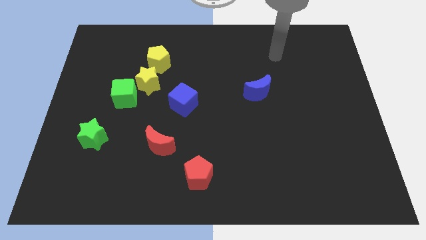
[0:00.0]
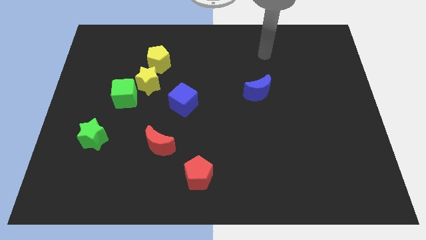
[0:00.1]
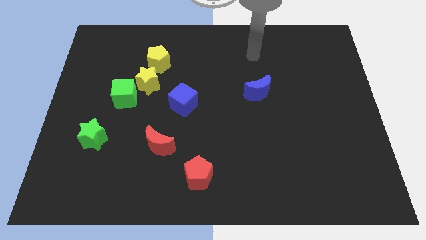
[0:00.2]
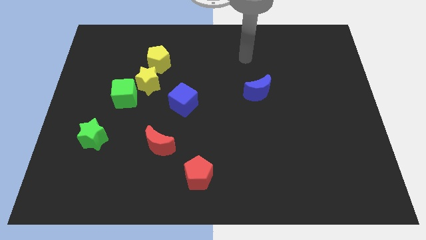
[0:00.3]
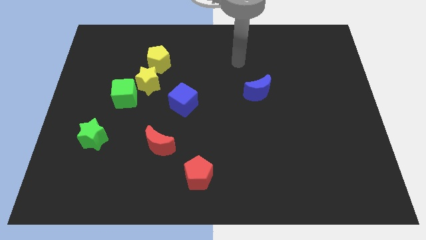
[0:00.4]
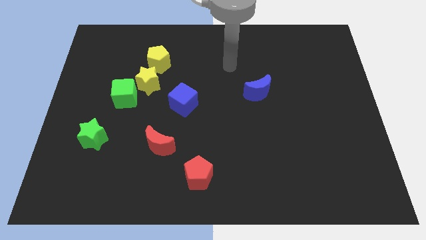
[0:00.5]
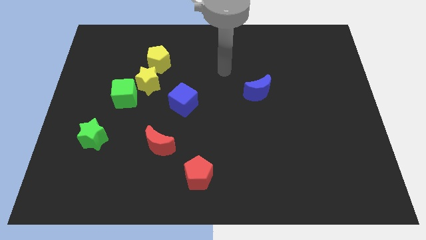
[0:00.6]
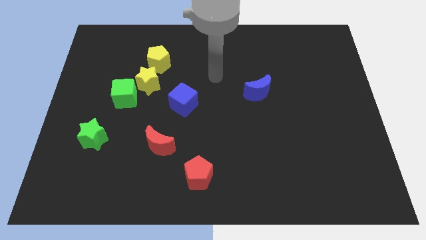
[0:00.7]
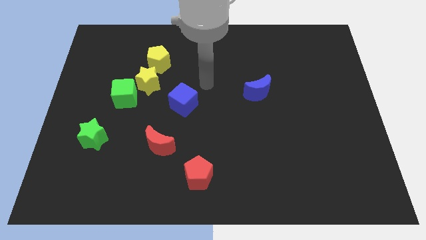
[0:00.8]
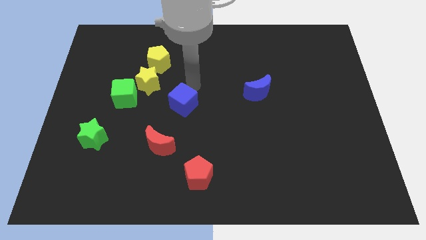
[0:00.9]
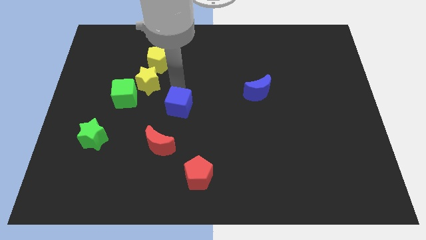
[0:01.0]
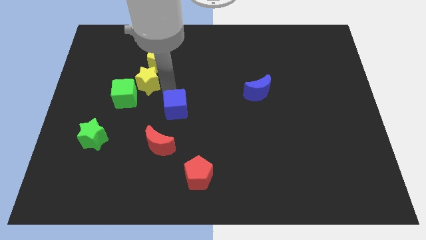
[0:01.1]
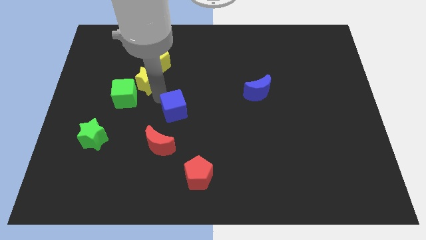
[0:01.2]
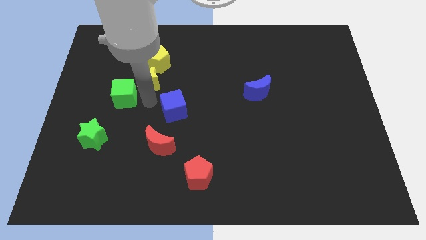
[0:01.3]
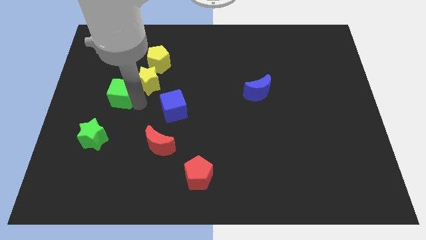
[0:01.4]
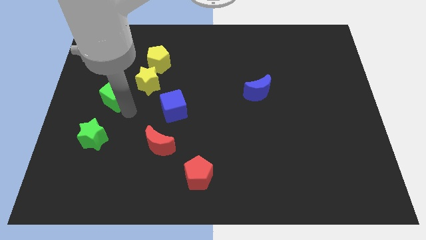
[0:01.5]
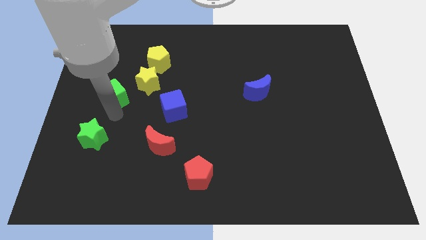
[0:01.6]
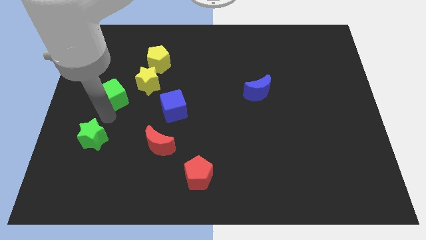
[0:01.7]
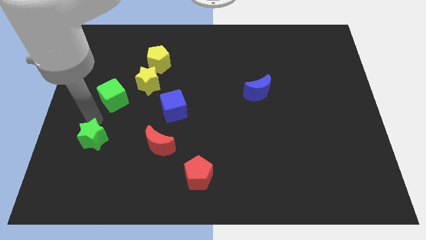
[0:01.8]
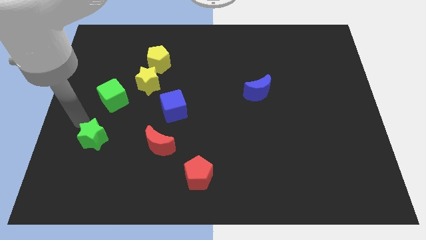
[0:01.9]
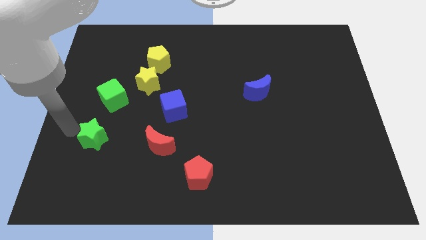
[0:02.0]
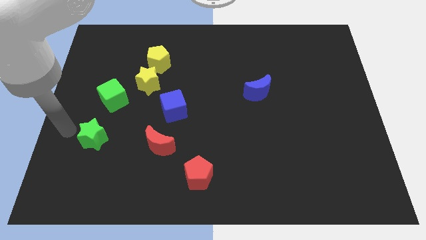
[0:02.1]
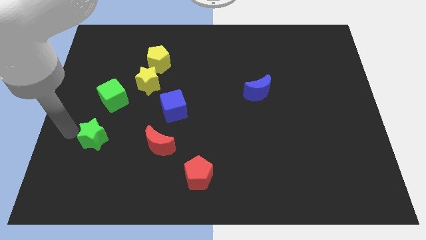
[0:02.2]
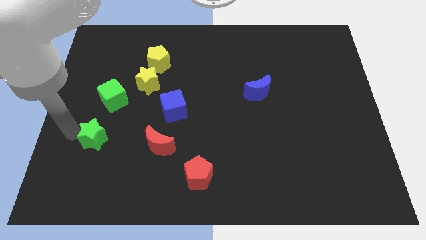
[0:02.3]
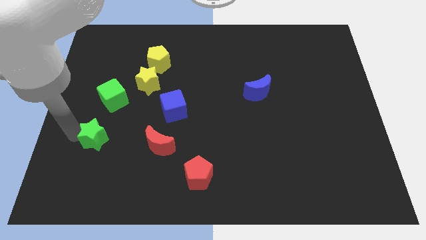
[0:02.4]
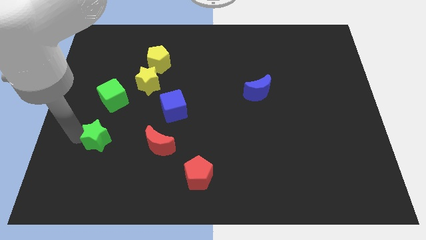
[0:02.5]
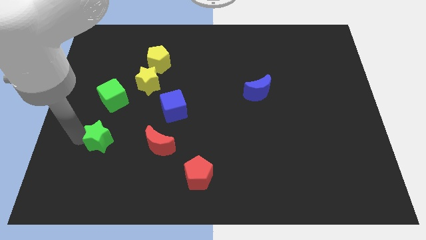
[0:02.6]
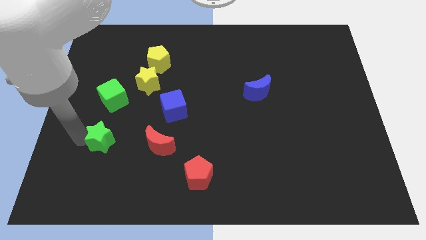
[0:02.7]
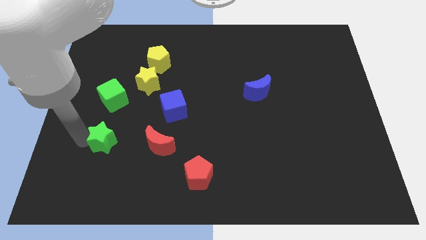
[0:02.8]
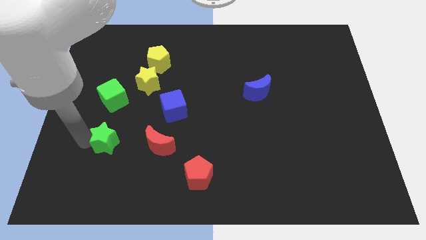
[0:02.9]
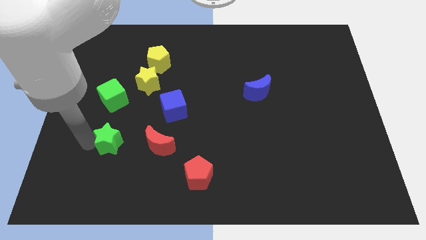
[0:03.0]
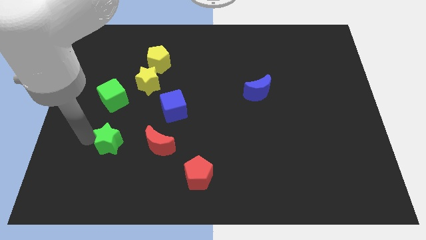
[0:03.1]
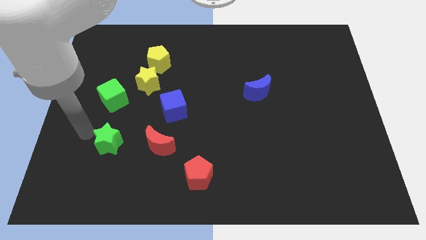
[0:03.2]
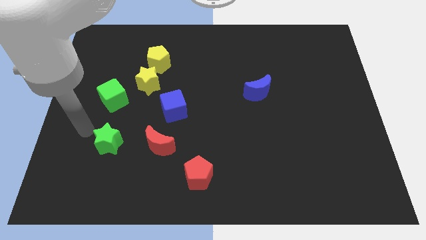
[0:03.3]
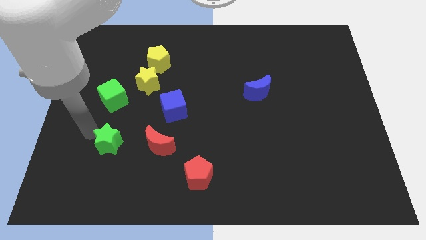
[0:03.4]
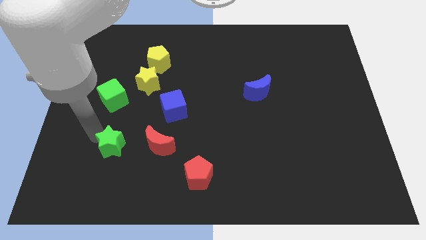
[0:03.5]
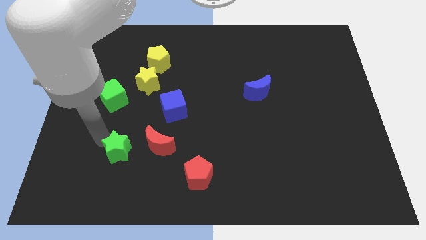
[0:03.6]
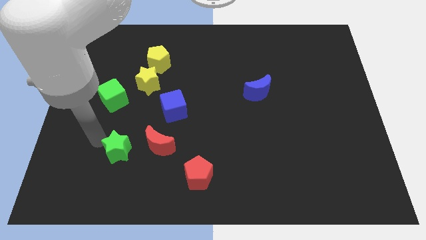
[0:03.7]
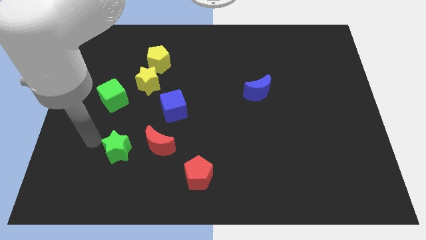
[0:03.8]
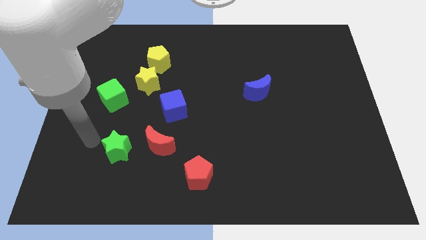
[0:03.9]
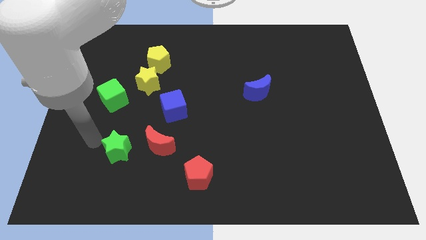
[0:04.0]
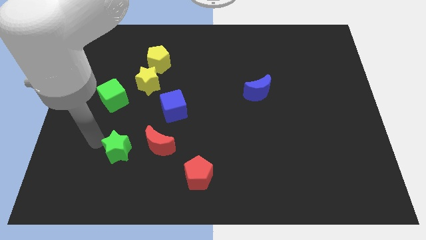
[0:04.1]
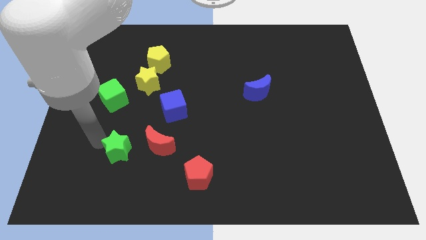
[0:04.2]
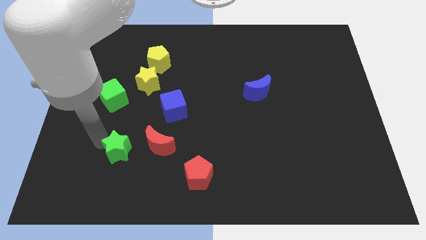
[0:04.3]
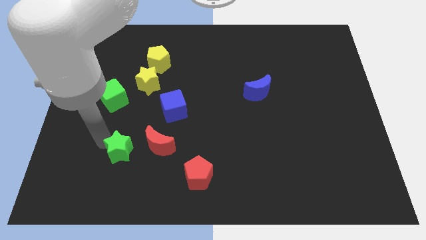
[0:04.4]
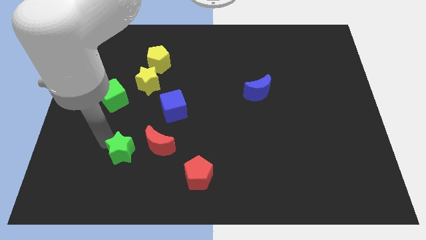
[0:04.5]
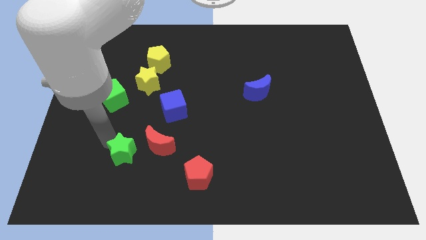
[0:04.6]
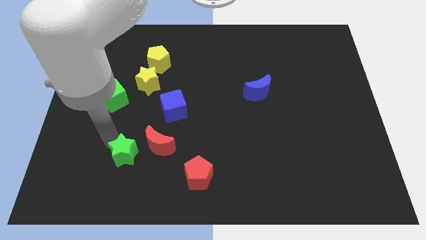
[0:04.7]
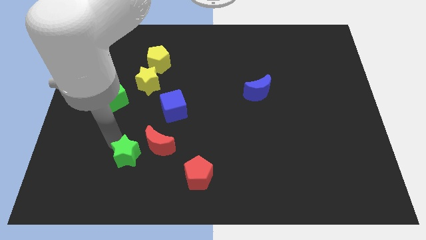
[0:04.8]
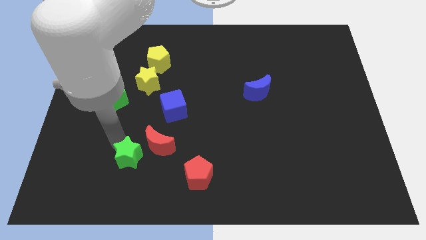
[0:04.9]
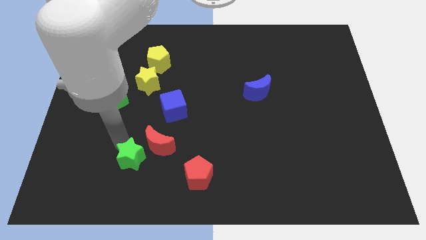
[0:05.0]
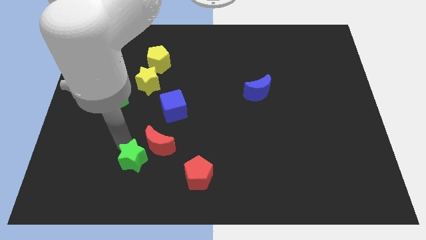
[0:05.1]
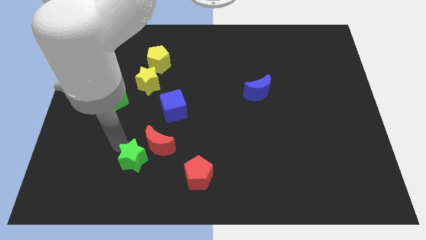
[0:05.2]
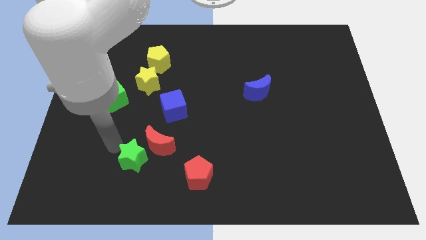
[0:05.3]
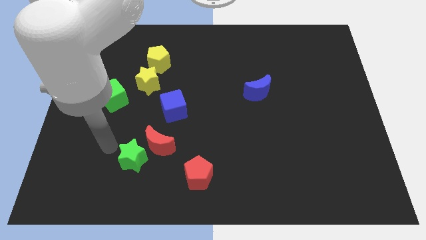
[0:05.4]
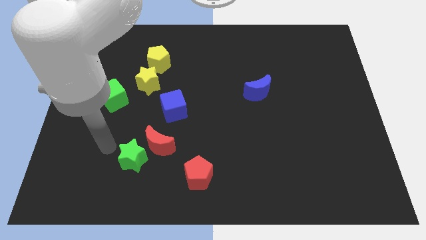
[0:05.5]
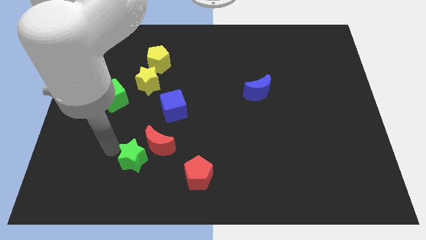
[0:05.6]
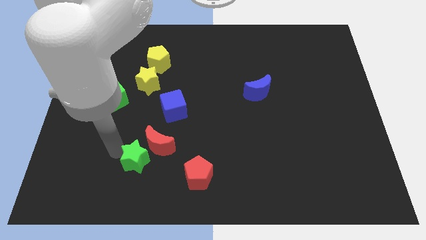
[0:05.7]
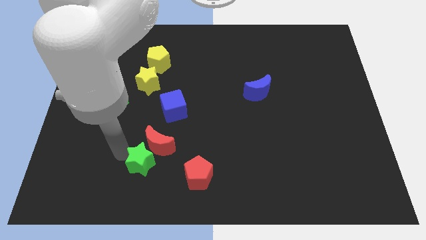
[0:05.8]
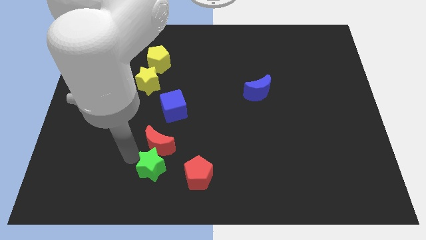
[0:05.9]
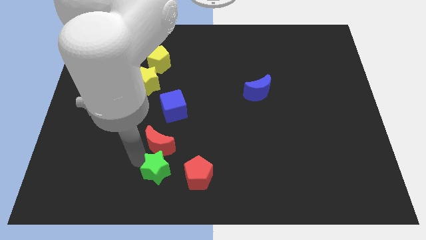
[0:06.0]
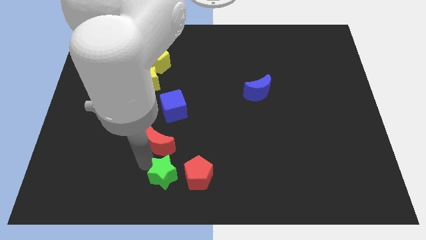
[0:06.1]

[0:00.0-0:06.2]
push the green star to the bottom side

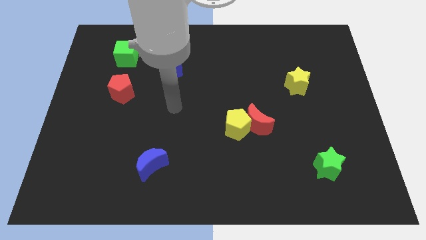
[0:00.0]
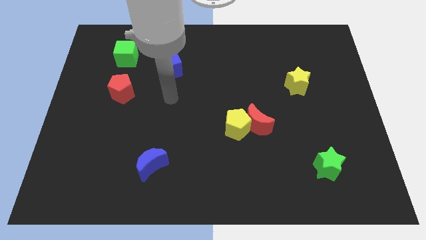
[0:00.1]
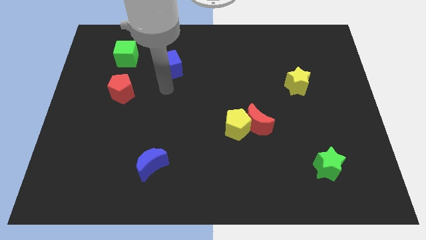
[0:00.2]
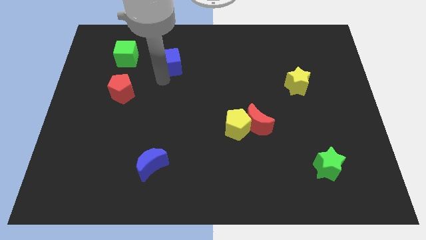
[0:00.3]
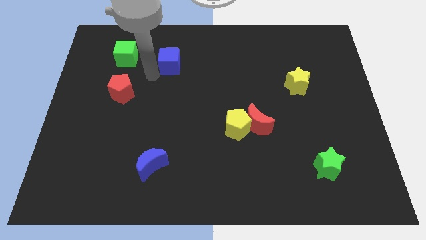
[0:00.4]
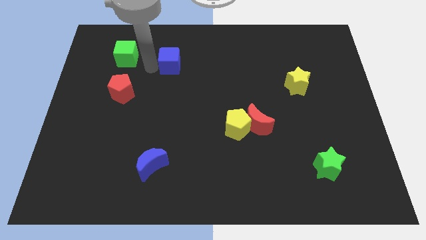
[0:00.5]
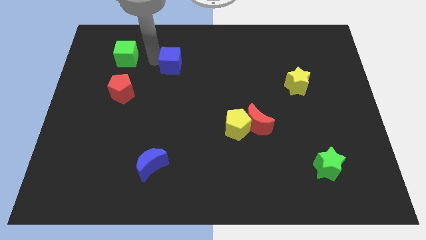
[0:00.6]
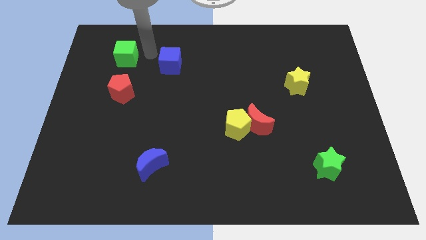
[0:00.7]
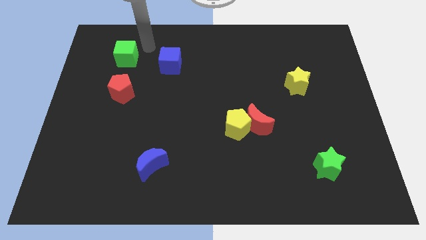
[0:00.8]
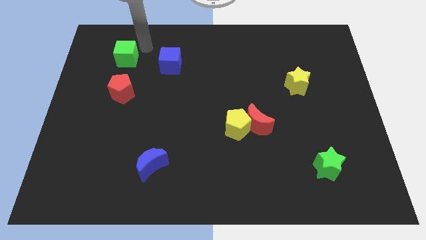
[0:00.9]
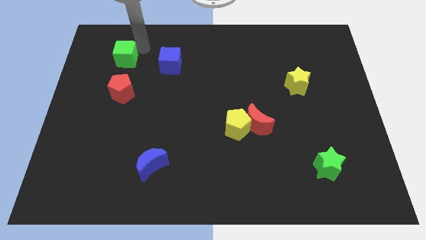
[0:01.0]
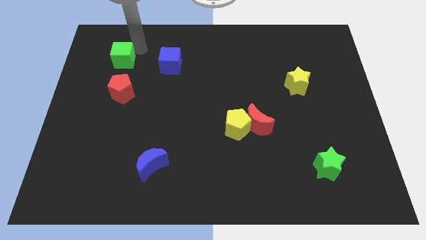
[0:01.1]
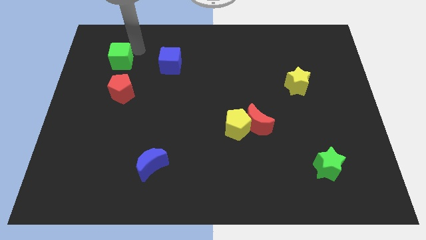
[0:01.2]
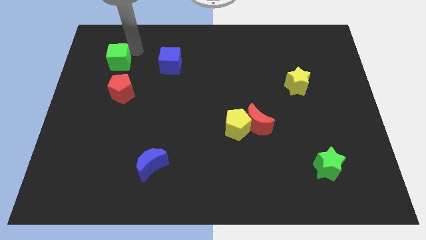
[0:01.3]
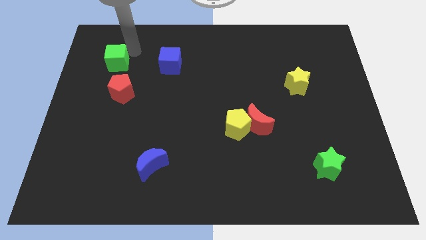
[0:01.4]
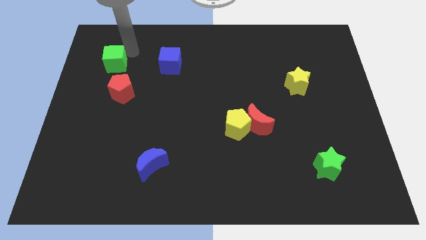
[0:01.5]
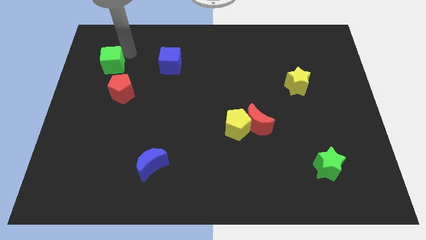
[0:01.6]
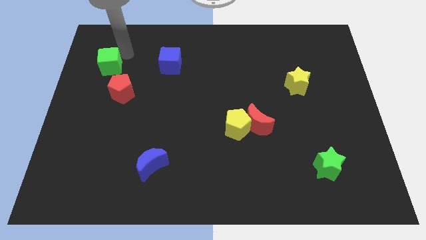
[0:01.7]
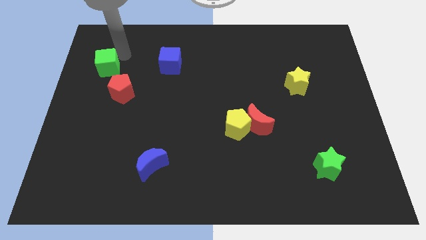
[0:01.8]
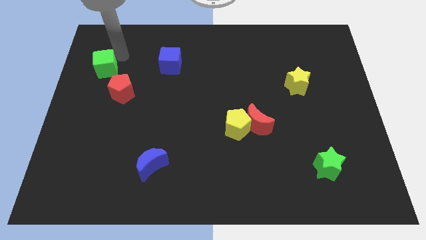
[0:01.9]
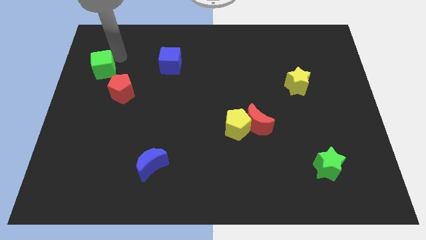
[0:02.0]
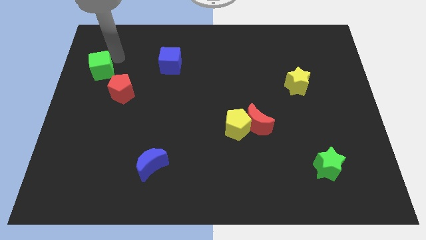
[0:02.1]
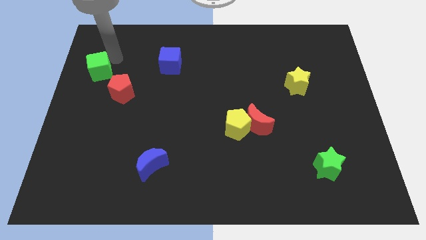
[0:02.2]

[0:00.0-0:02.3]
move the green cube to the left side of the board
